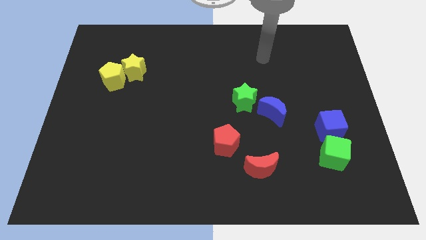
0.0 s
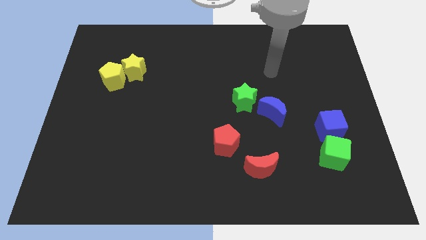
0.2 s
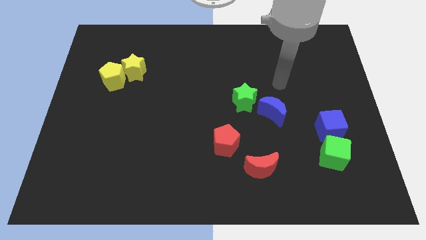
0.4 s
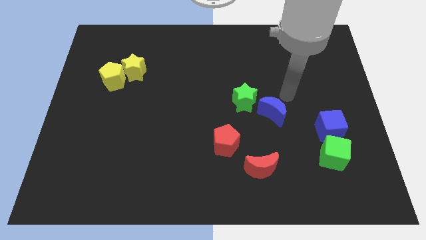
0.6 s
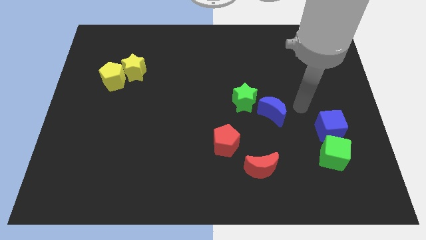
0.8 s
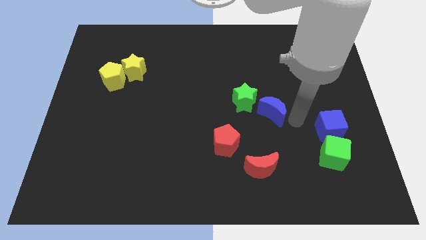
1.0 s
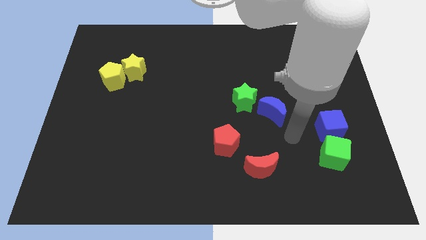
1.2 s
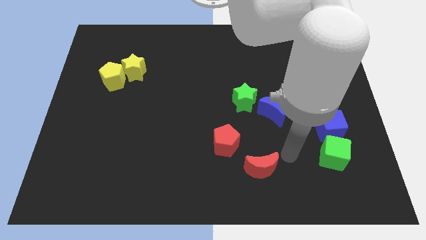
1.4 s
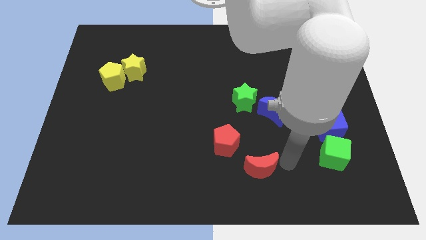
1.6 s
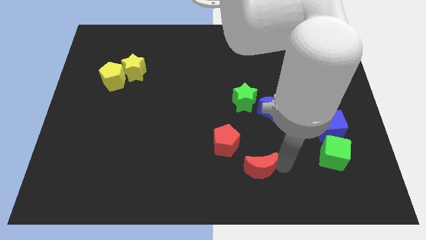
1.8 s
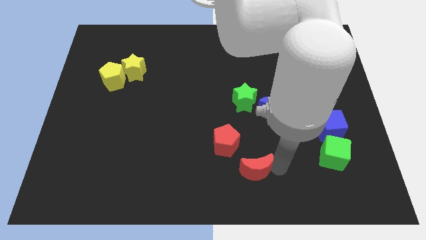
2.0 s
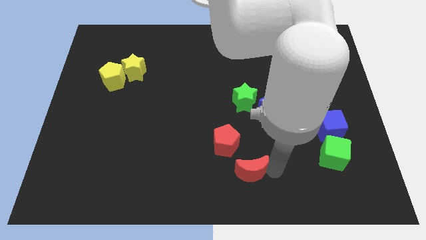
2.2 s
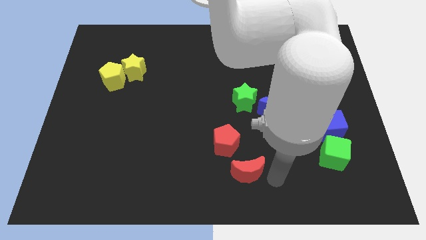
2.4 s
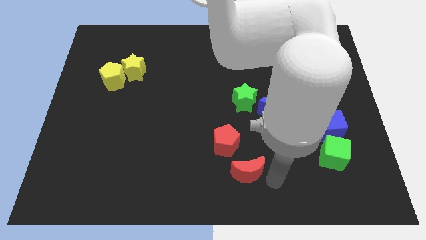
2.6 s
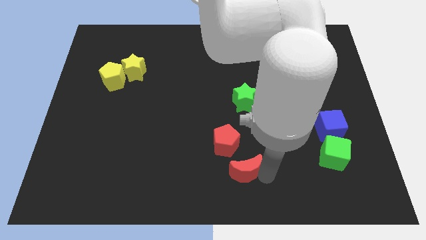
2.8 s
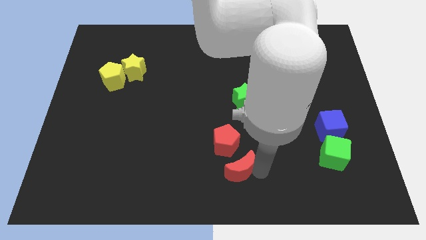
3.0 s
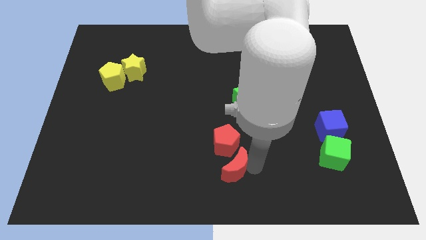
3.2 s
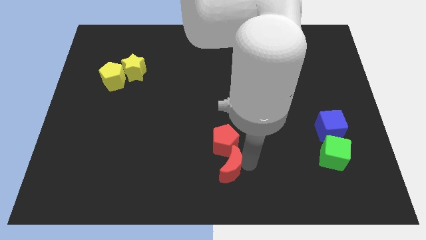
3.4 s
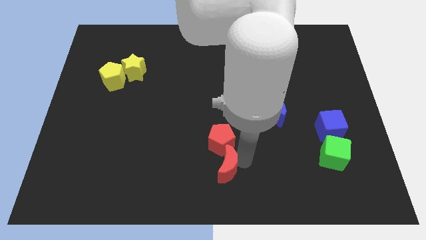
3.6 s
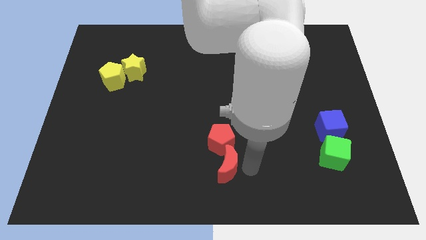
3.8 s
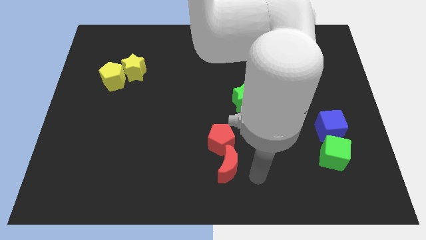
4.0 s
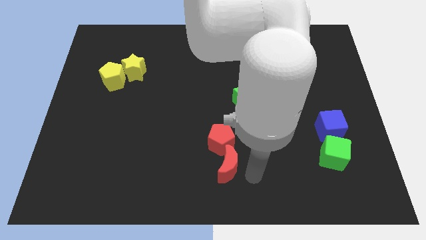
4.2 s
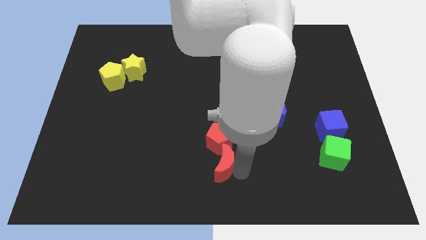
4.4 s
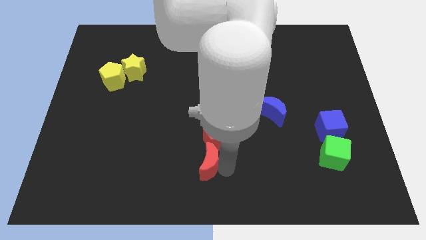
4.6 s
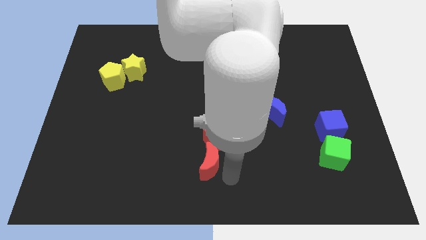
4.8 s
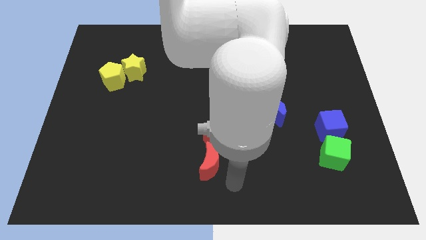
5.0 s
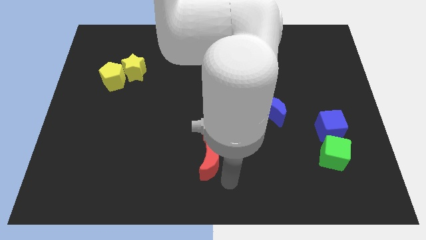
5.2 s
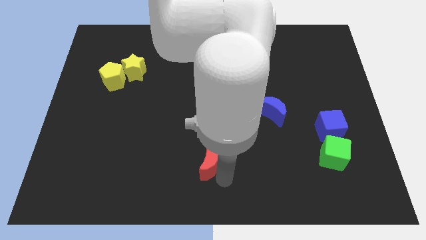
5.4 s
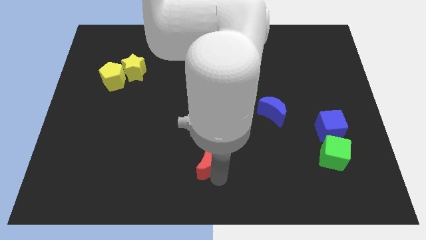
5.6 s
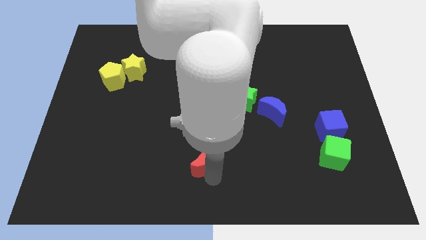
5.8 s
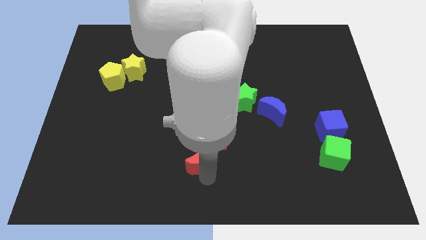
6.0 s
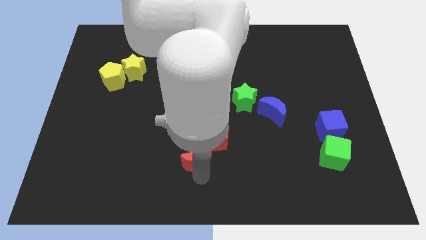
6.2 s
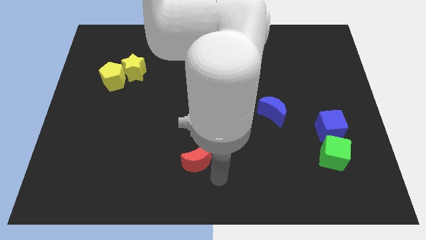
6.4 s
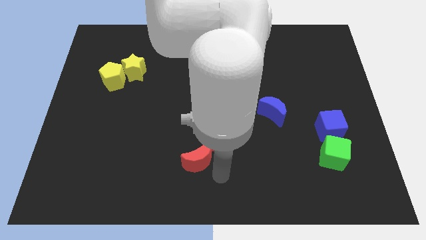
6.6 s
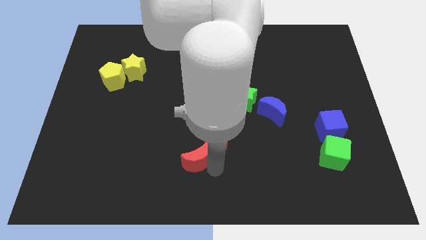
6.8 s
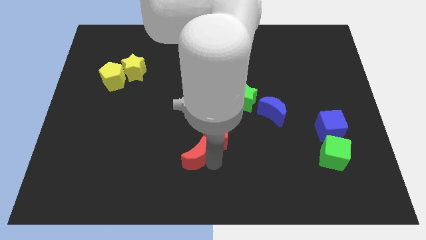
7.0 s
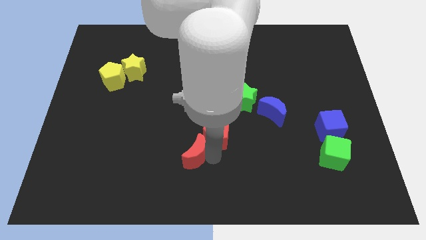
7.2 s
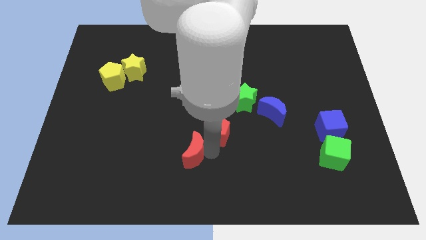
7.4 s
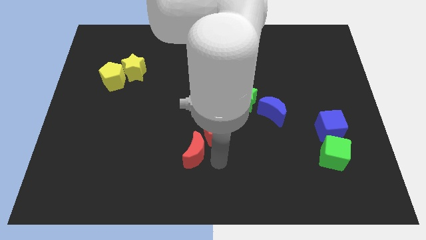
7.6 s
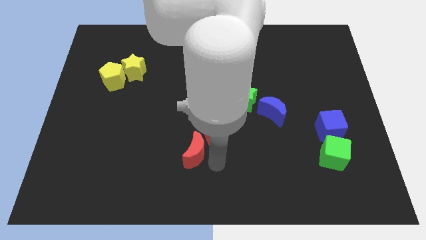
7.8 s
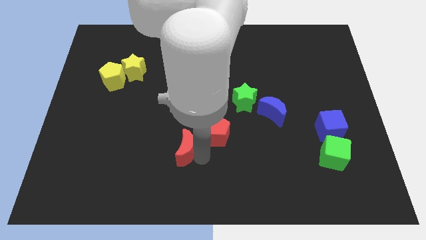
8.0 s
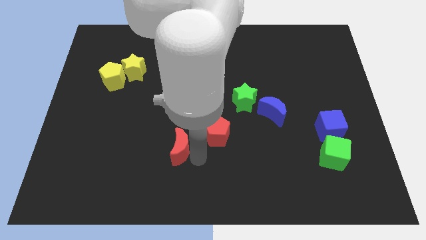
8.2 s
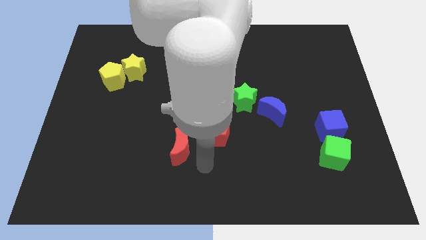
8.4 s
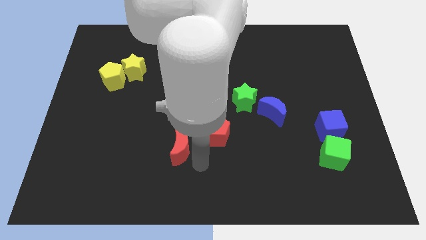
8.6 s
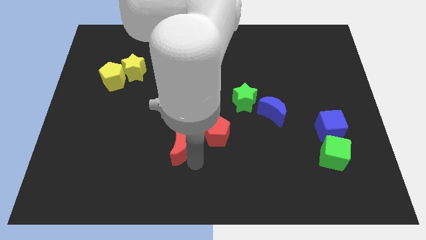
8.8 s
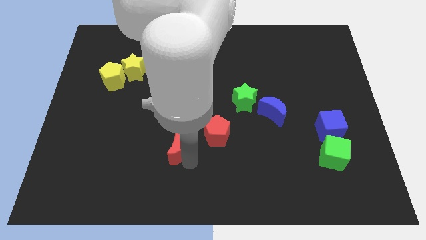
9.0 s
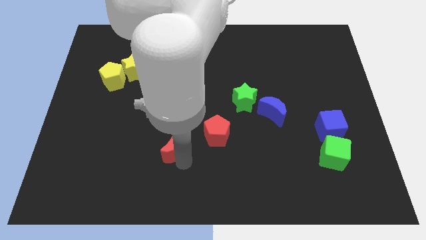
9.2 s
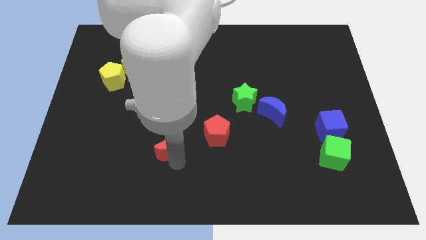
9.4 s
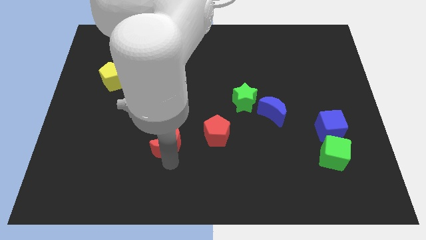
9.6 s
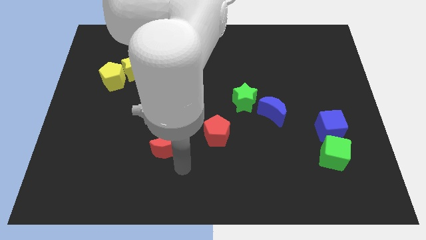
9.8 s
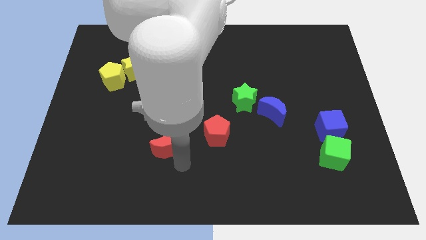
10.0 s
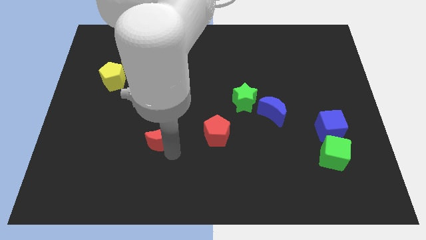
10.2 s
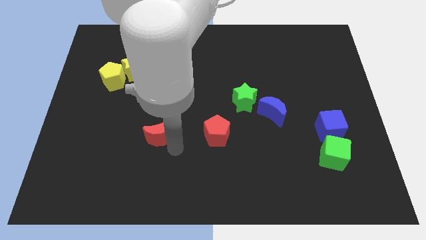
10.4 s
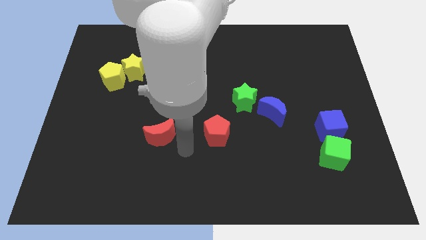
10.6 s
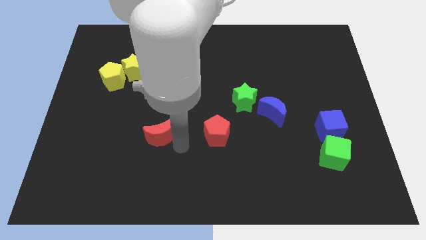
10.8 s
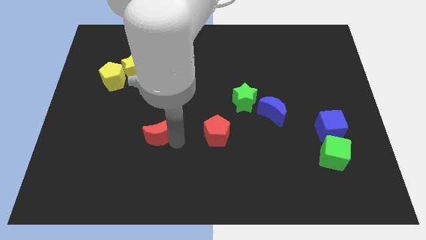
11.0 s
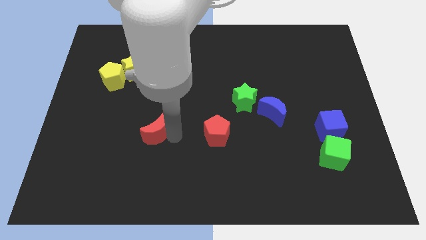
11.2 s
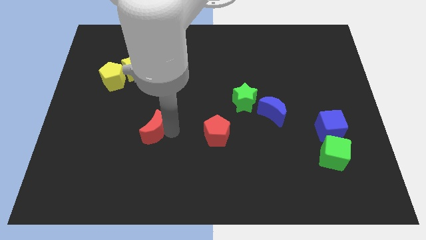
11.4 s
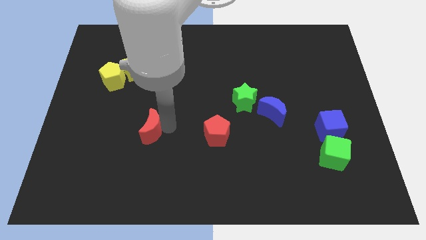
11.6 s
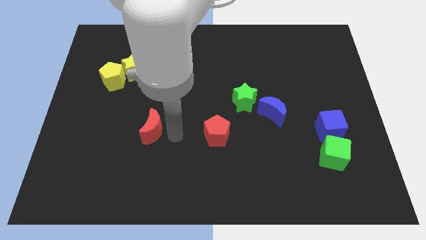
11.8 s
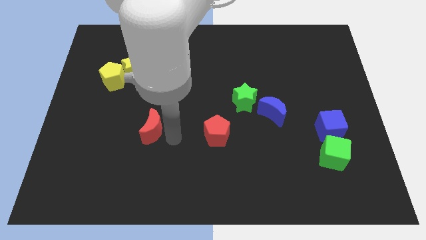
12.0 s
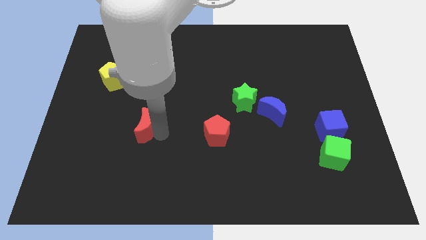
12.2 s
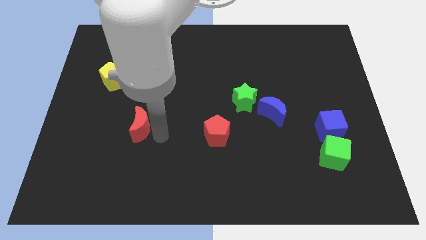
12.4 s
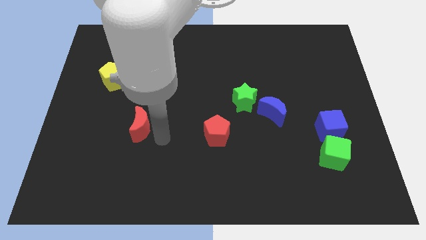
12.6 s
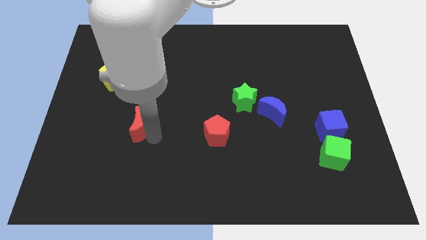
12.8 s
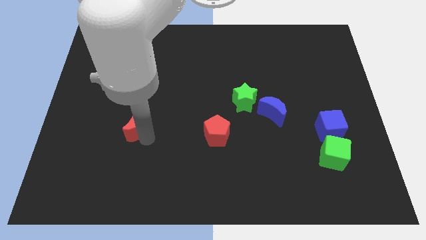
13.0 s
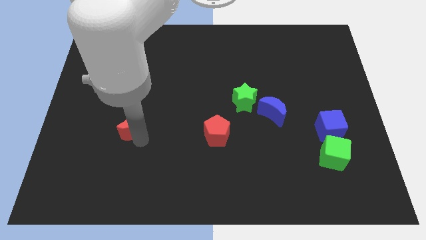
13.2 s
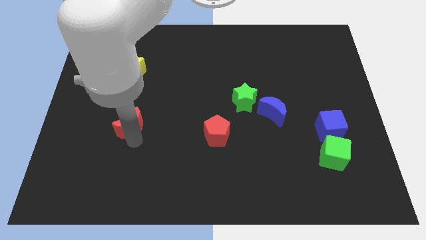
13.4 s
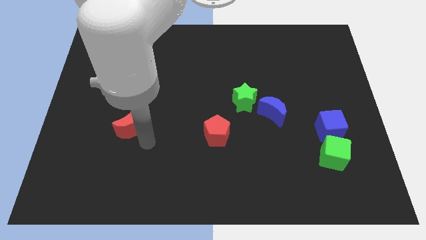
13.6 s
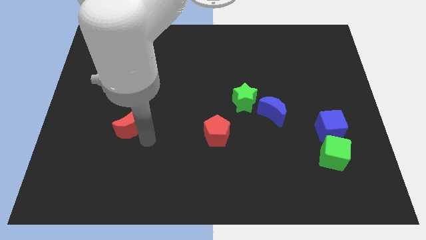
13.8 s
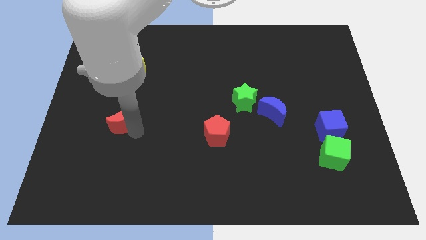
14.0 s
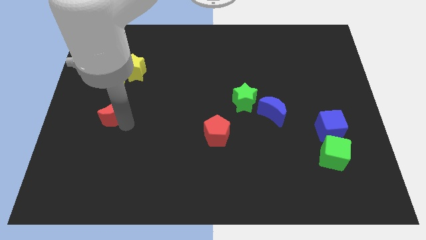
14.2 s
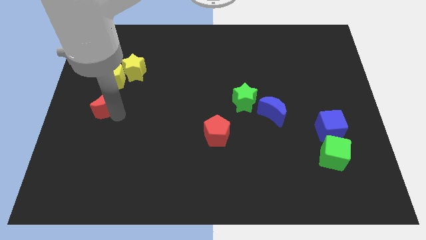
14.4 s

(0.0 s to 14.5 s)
slide the red moon to the left side of the board
